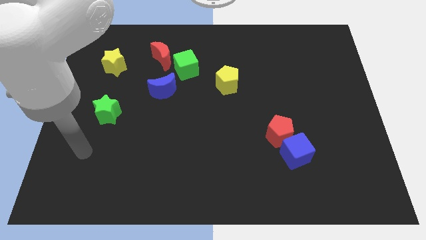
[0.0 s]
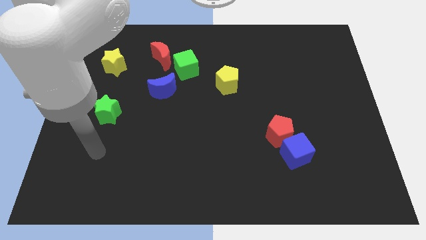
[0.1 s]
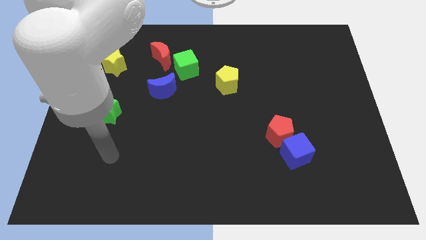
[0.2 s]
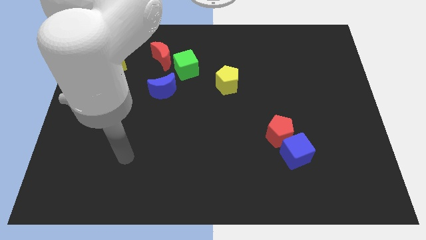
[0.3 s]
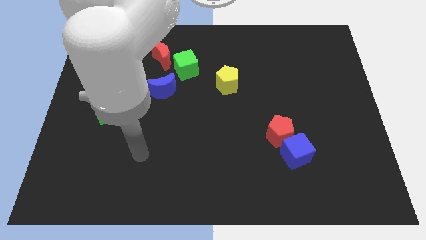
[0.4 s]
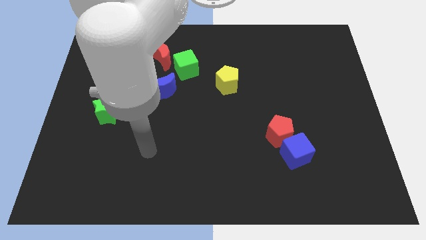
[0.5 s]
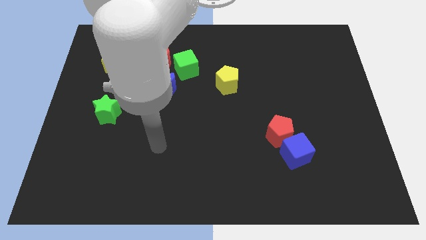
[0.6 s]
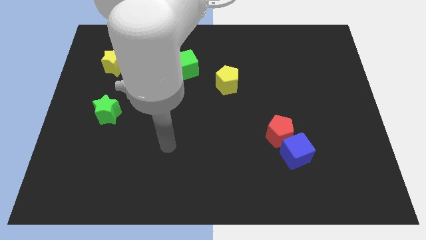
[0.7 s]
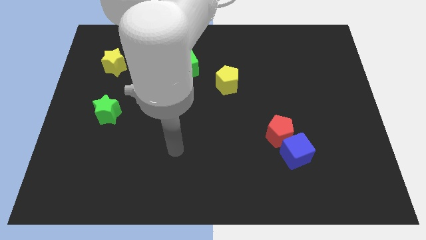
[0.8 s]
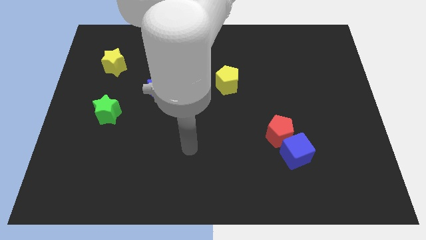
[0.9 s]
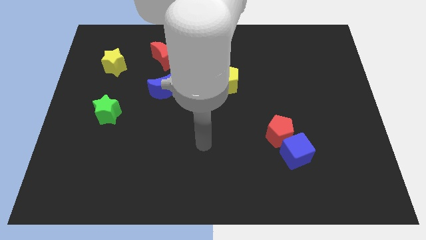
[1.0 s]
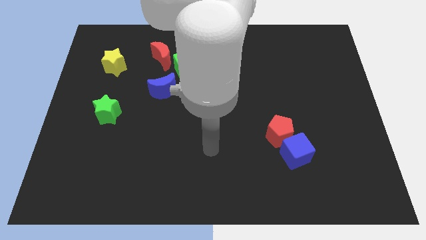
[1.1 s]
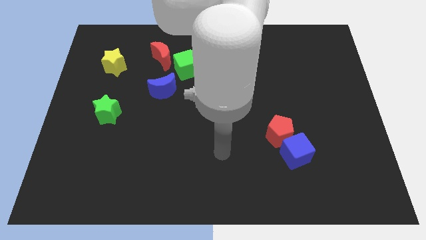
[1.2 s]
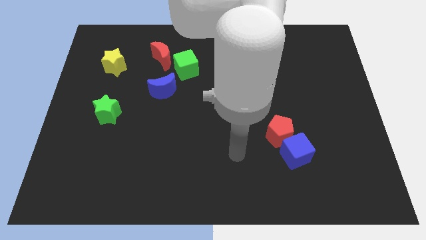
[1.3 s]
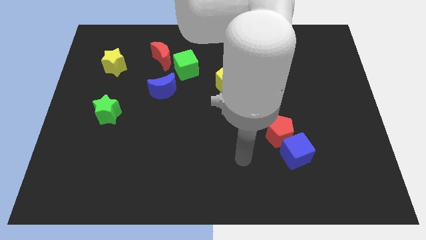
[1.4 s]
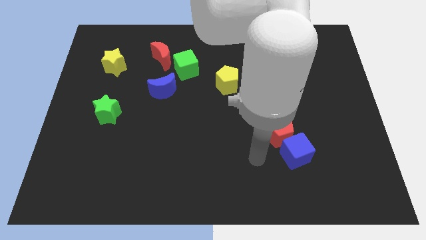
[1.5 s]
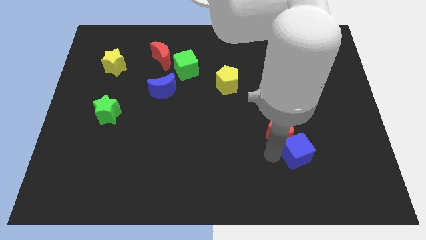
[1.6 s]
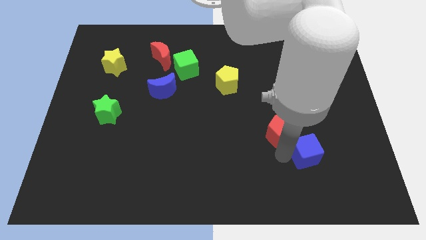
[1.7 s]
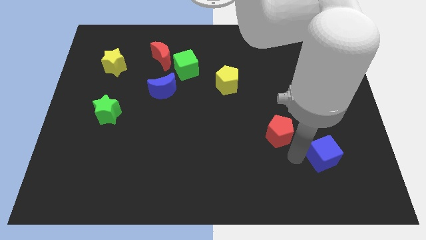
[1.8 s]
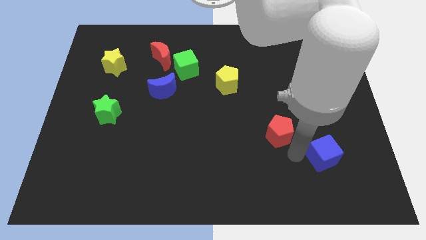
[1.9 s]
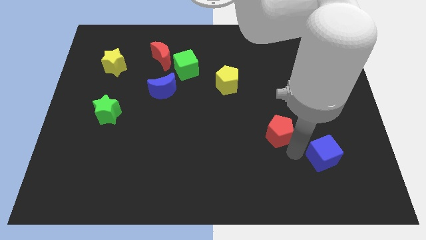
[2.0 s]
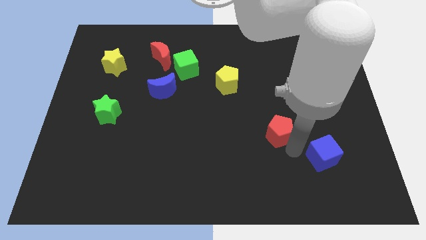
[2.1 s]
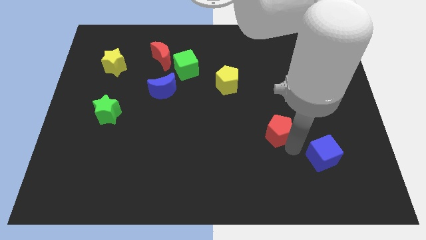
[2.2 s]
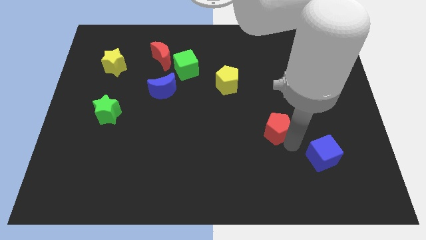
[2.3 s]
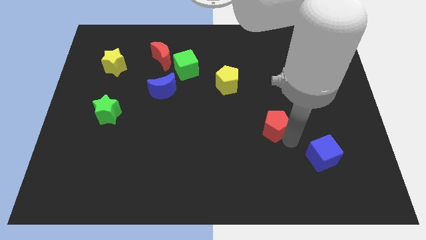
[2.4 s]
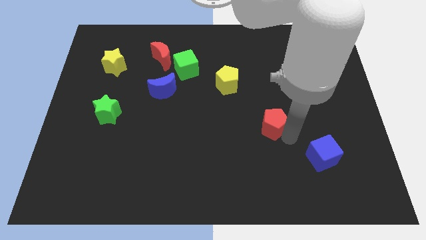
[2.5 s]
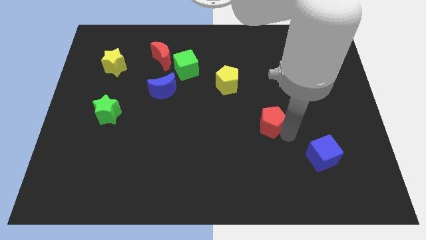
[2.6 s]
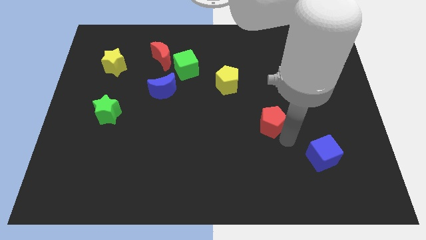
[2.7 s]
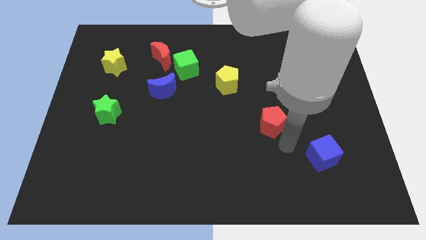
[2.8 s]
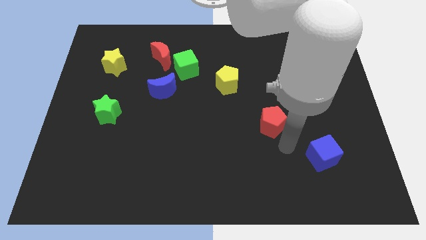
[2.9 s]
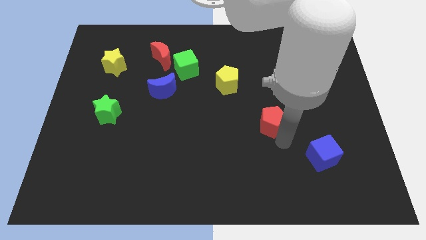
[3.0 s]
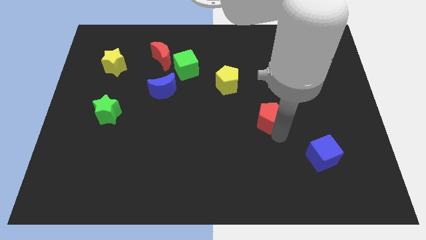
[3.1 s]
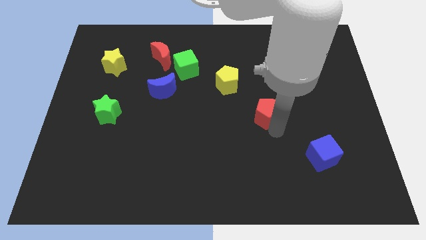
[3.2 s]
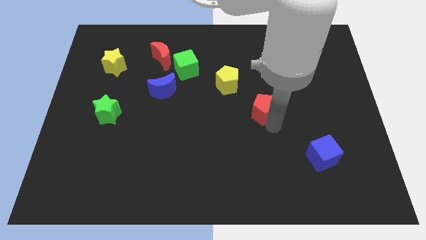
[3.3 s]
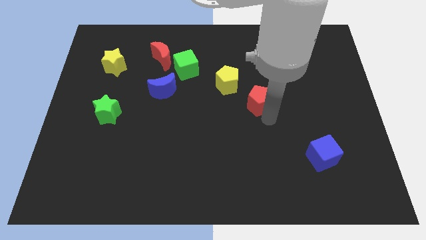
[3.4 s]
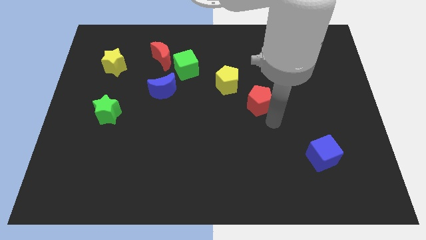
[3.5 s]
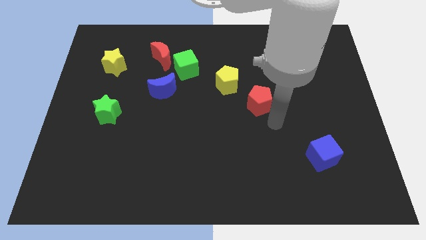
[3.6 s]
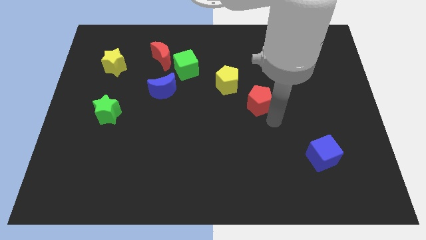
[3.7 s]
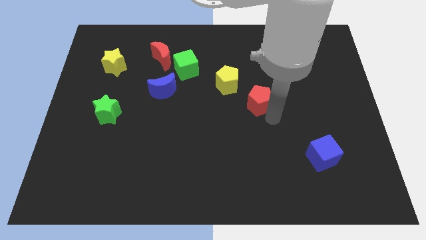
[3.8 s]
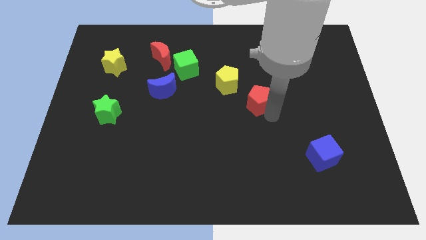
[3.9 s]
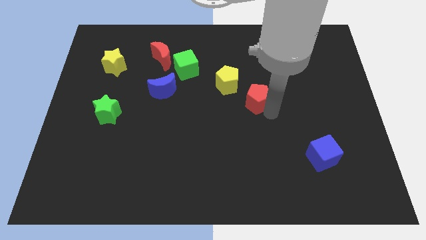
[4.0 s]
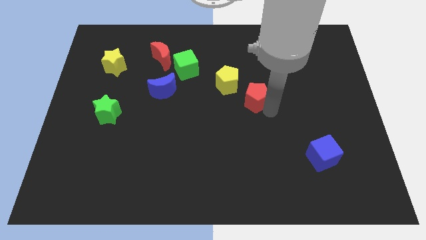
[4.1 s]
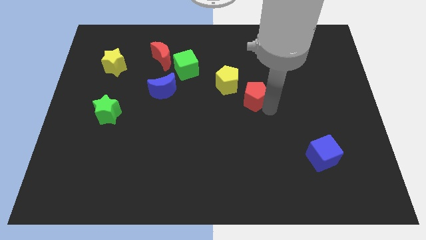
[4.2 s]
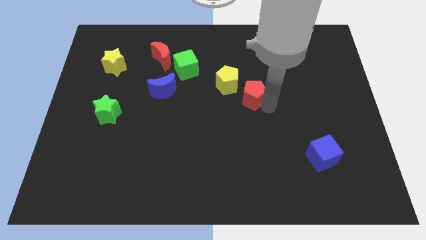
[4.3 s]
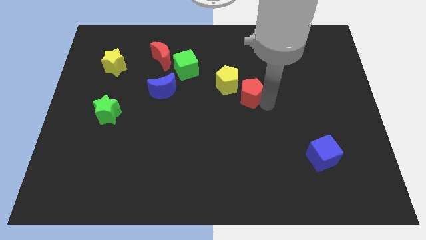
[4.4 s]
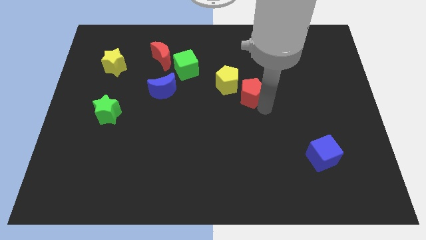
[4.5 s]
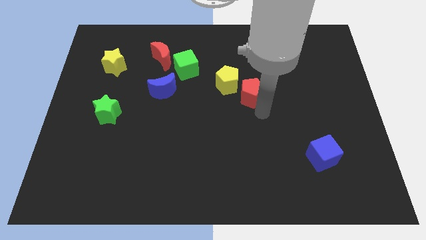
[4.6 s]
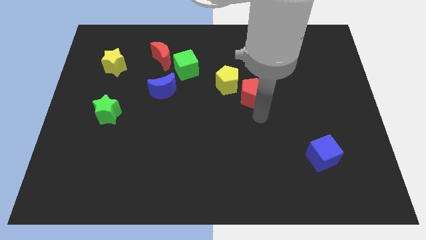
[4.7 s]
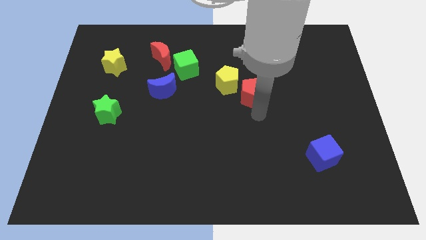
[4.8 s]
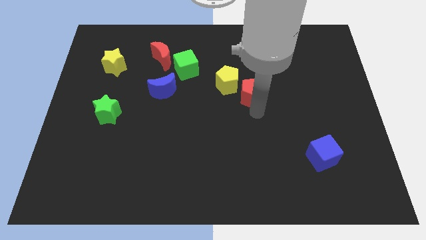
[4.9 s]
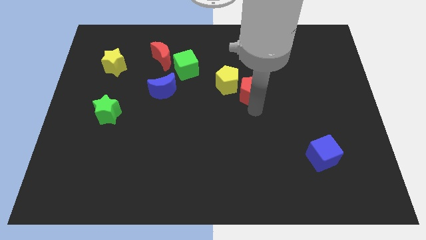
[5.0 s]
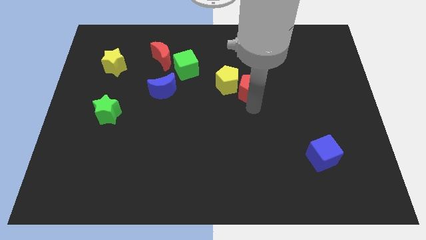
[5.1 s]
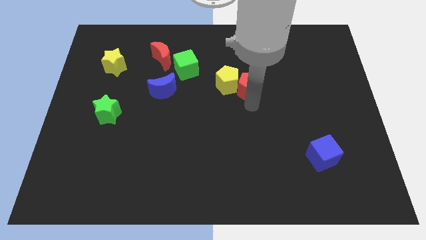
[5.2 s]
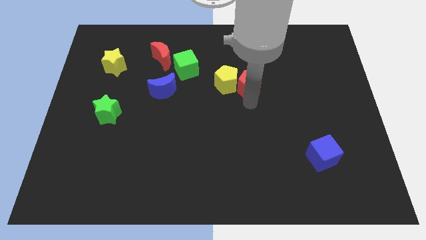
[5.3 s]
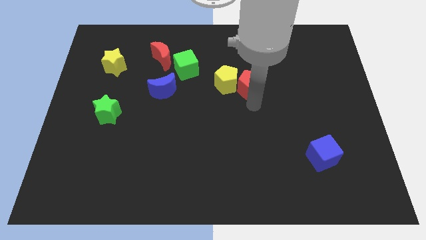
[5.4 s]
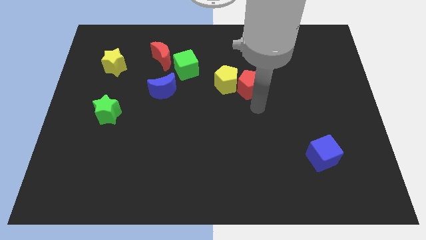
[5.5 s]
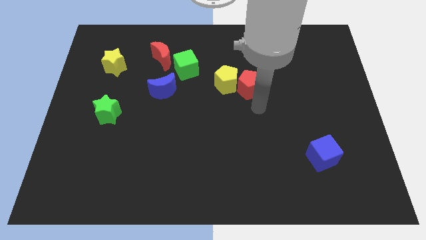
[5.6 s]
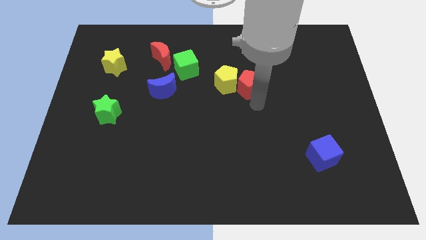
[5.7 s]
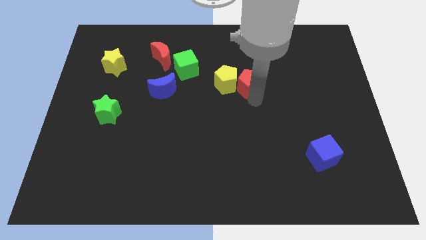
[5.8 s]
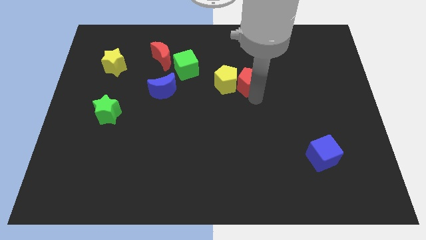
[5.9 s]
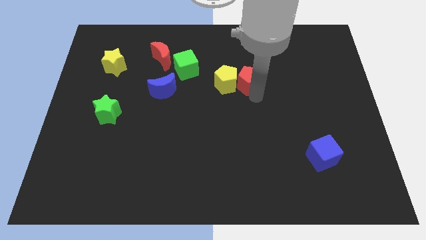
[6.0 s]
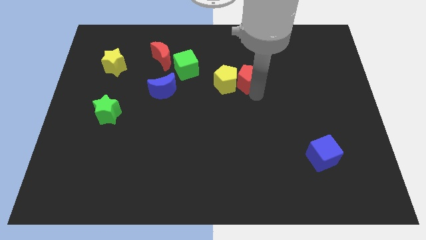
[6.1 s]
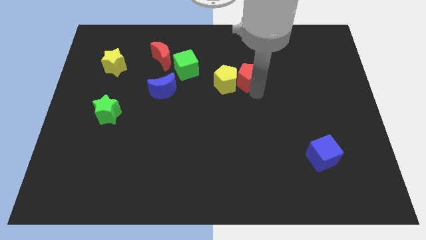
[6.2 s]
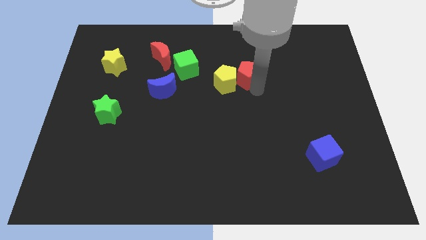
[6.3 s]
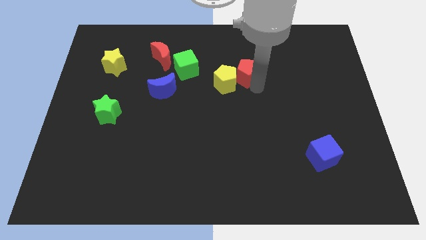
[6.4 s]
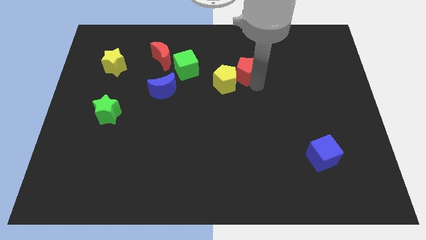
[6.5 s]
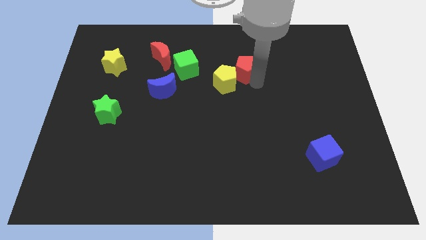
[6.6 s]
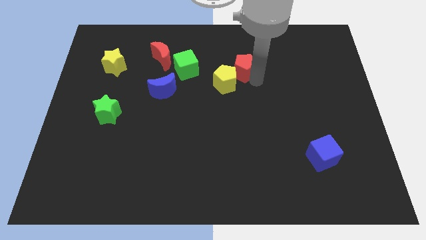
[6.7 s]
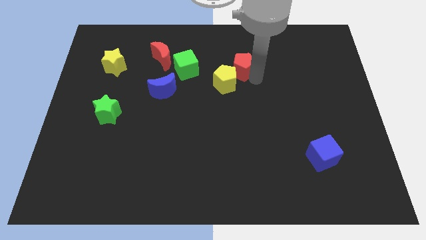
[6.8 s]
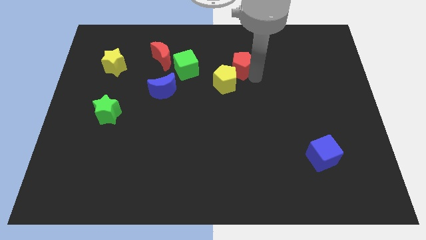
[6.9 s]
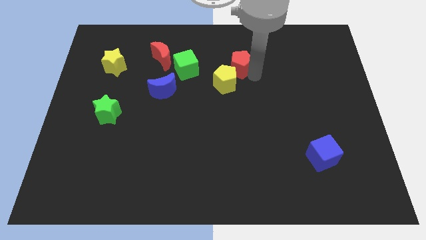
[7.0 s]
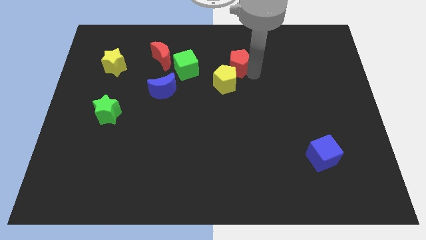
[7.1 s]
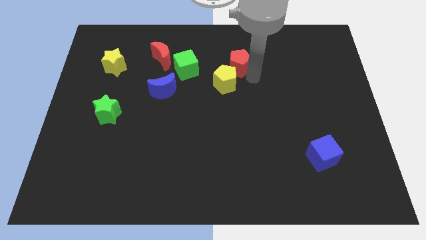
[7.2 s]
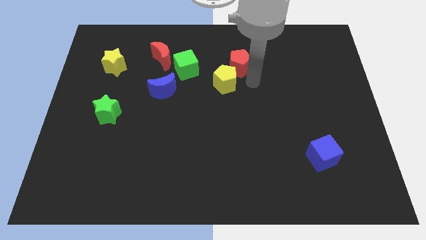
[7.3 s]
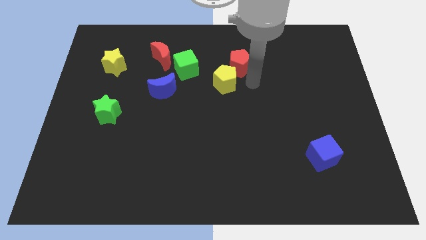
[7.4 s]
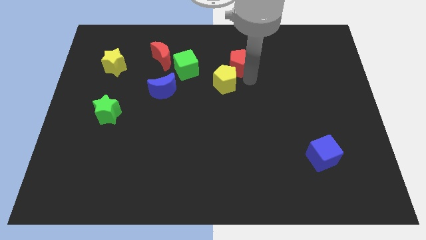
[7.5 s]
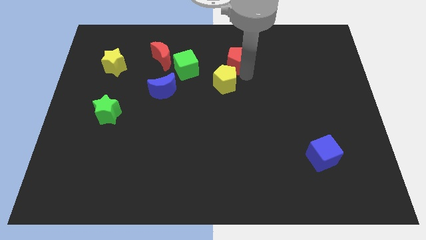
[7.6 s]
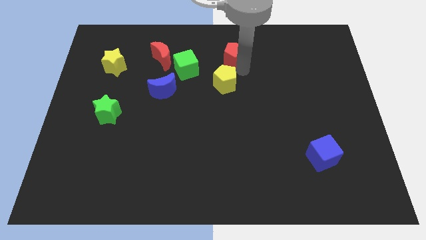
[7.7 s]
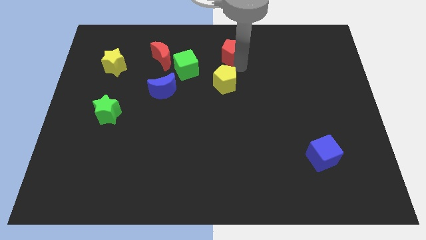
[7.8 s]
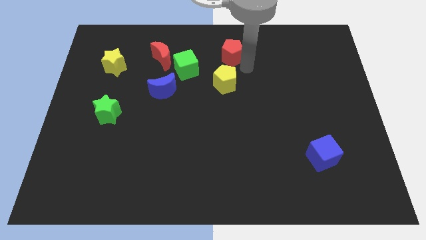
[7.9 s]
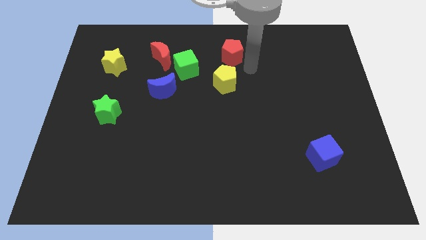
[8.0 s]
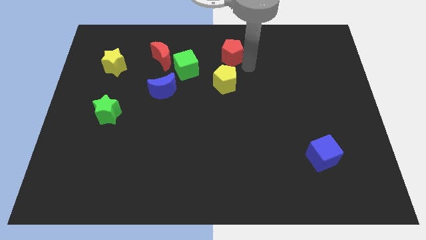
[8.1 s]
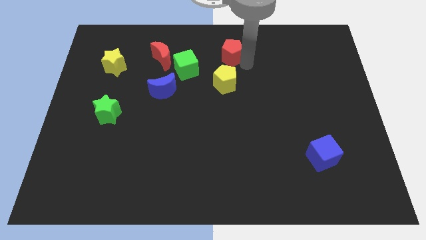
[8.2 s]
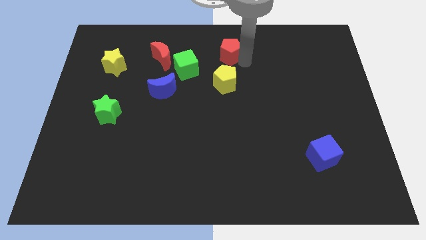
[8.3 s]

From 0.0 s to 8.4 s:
put the red pentagon to the towards your base
